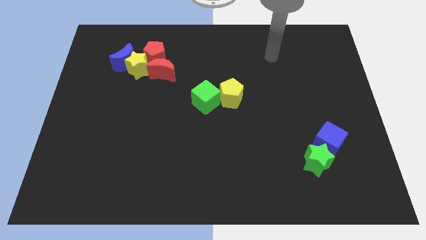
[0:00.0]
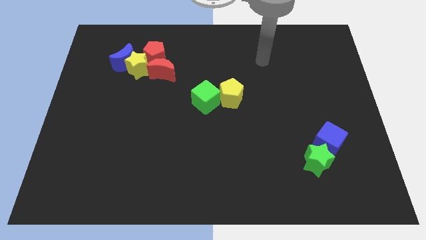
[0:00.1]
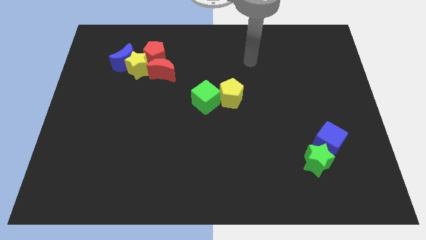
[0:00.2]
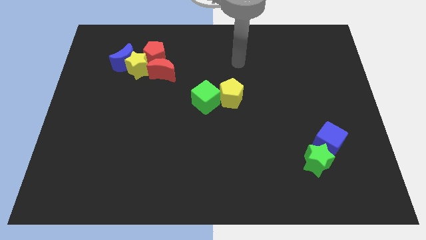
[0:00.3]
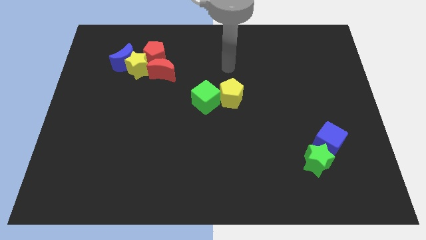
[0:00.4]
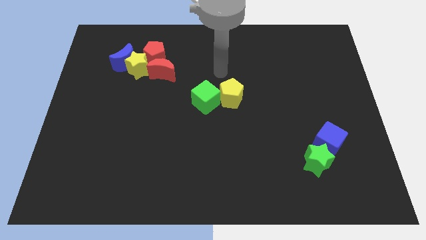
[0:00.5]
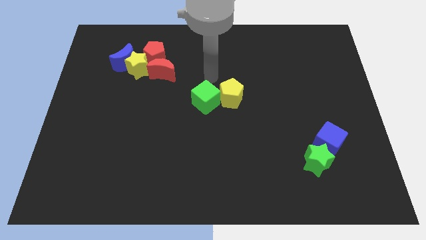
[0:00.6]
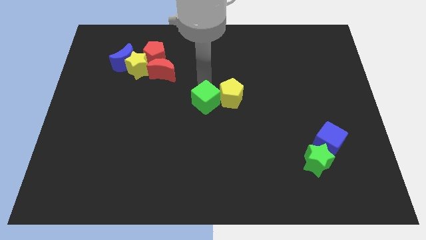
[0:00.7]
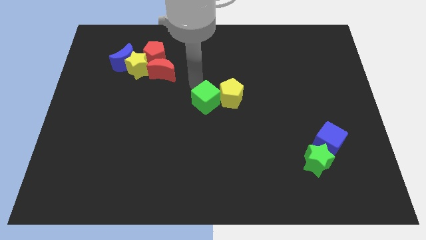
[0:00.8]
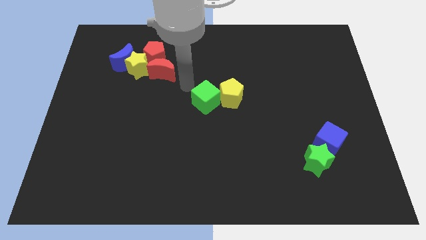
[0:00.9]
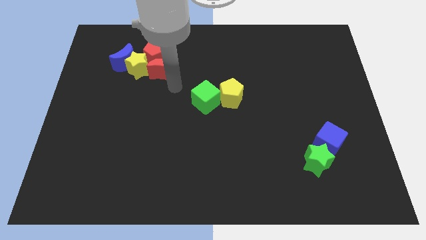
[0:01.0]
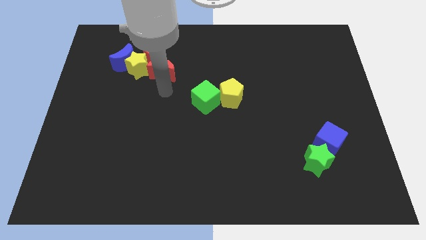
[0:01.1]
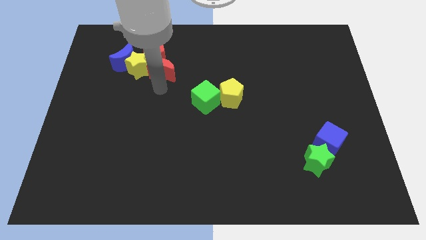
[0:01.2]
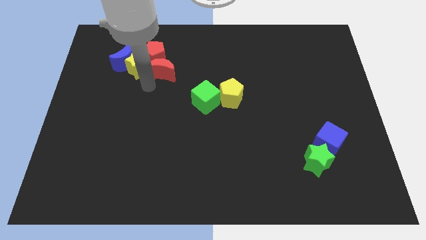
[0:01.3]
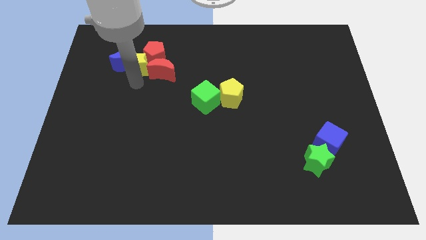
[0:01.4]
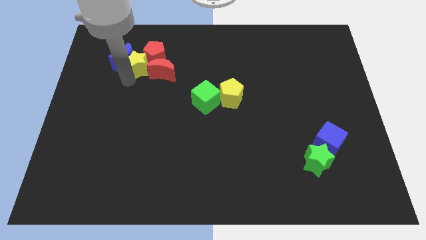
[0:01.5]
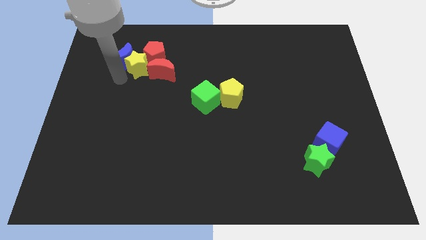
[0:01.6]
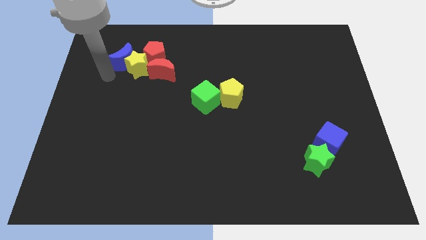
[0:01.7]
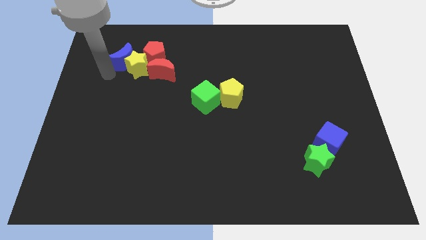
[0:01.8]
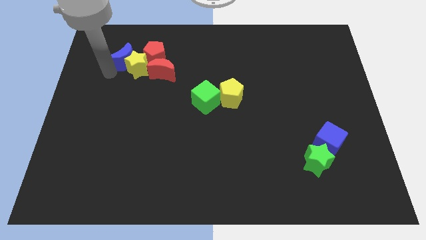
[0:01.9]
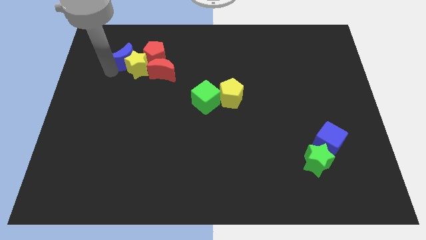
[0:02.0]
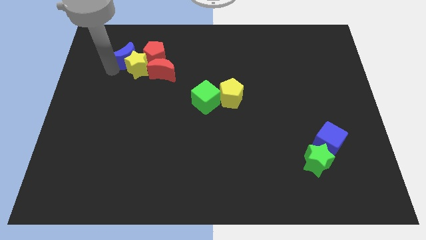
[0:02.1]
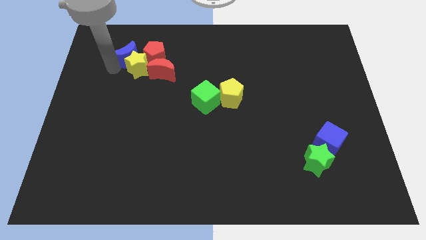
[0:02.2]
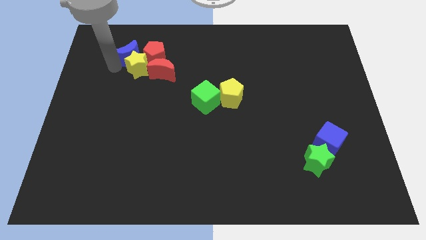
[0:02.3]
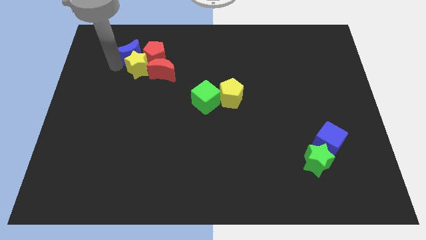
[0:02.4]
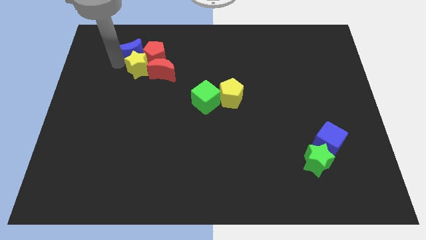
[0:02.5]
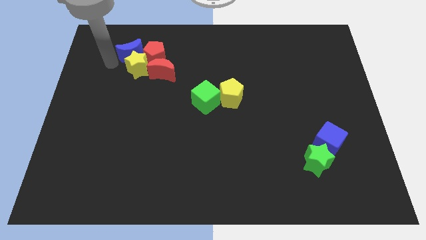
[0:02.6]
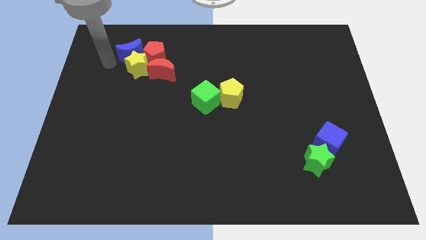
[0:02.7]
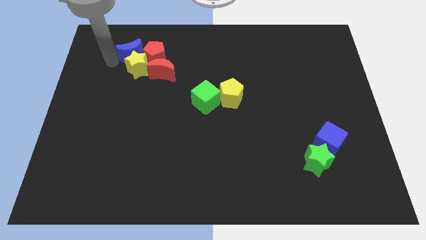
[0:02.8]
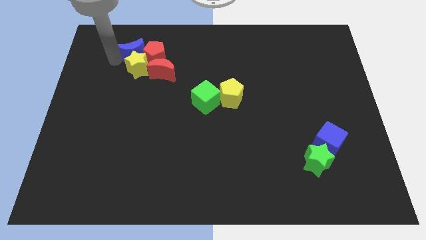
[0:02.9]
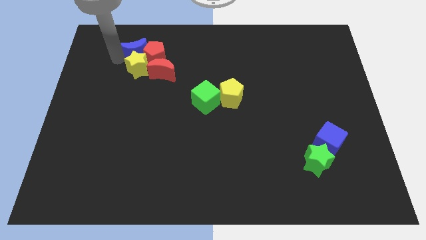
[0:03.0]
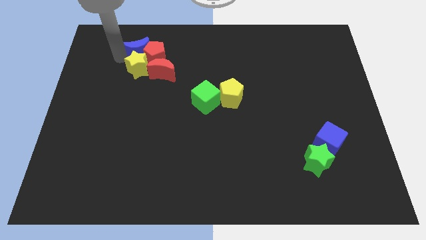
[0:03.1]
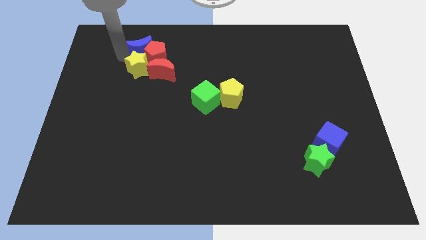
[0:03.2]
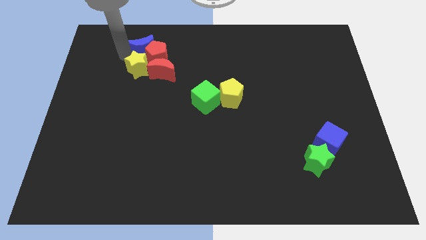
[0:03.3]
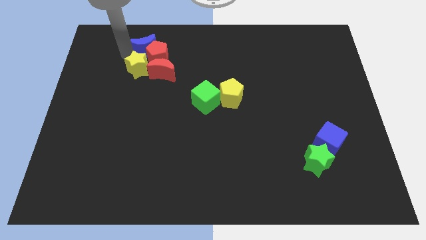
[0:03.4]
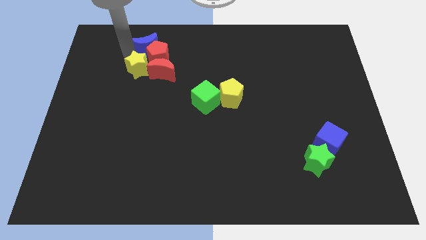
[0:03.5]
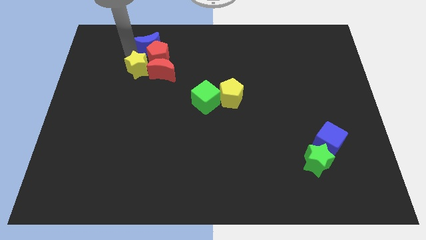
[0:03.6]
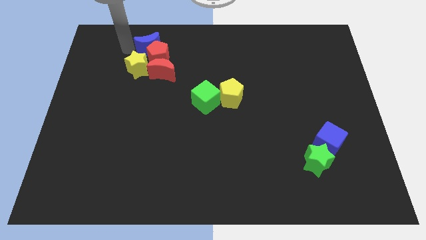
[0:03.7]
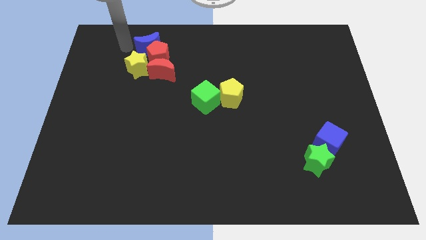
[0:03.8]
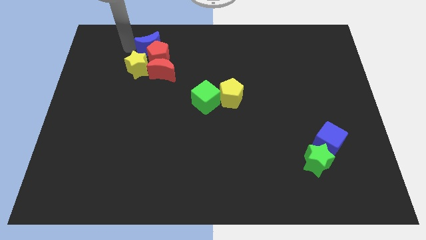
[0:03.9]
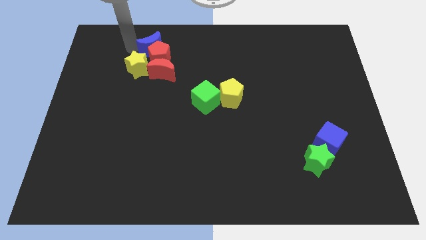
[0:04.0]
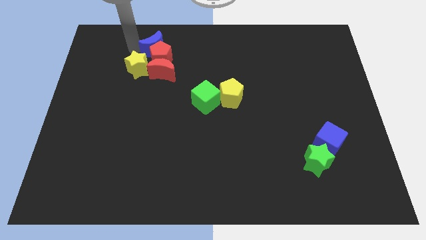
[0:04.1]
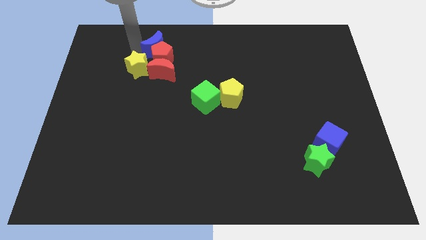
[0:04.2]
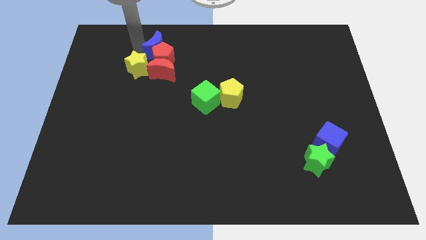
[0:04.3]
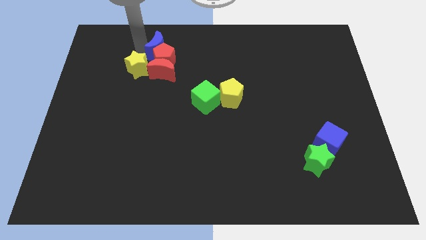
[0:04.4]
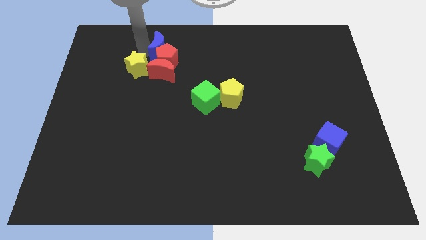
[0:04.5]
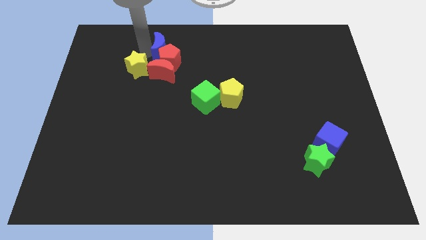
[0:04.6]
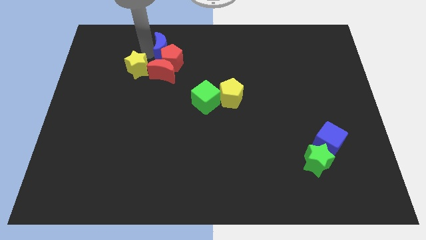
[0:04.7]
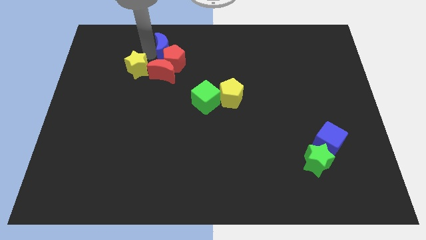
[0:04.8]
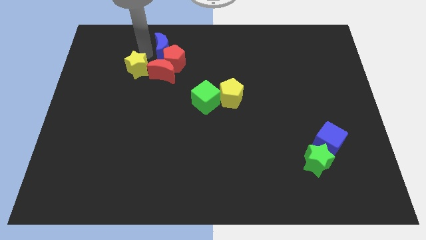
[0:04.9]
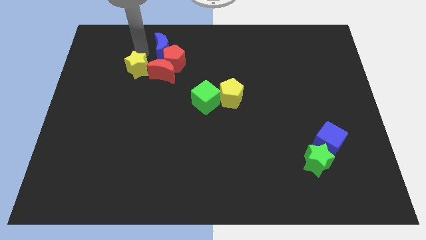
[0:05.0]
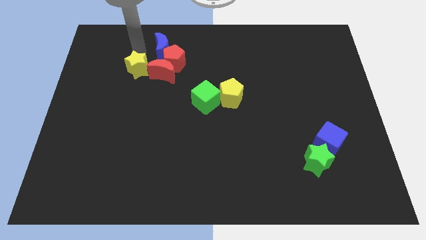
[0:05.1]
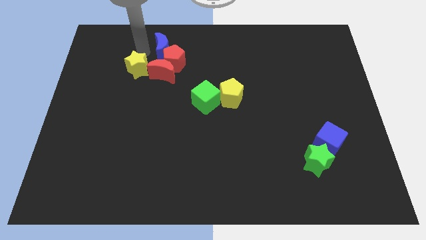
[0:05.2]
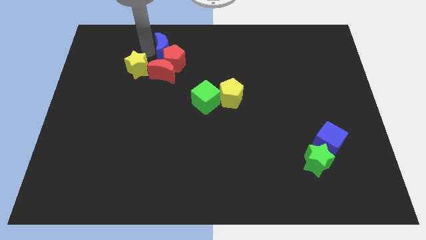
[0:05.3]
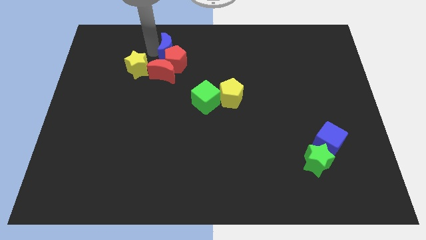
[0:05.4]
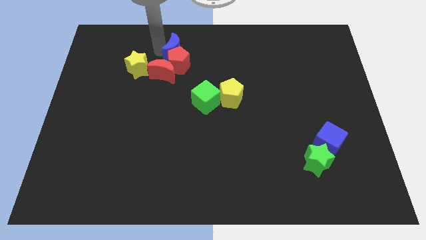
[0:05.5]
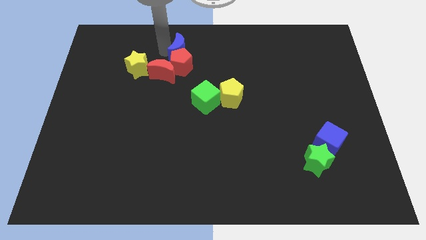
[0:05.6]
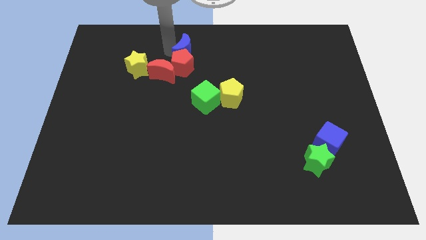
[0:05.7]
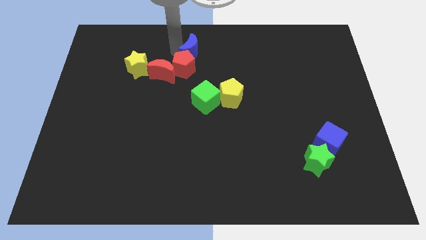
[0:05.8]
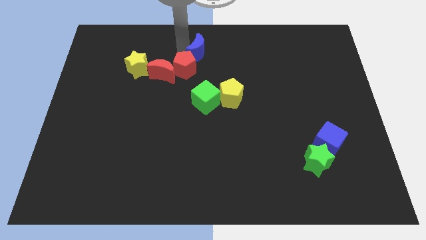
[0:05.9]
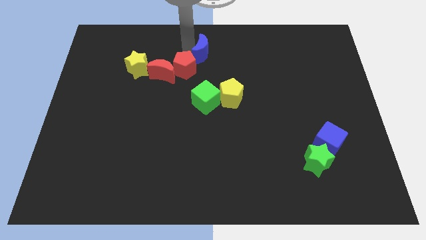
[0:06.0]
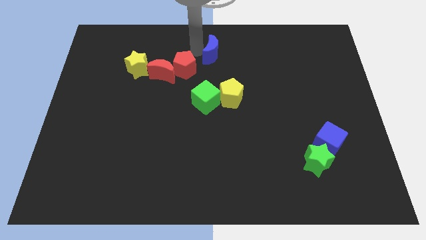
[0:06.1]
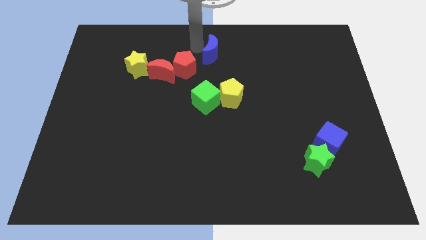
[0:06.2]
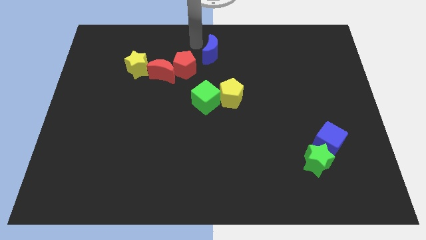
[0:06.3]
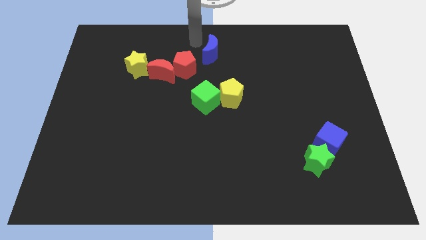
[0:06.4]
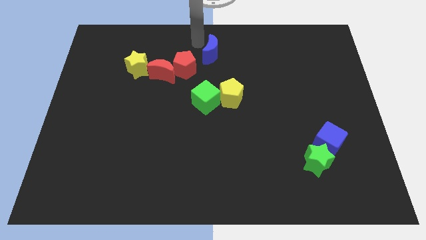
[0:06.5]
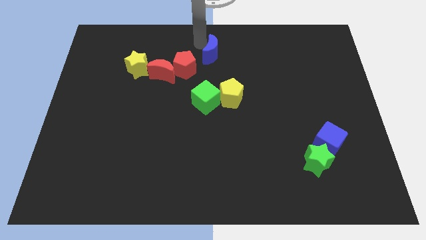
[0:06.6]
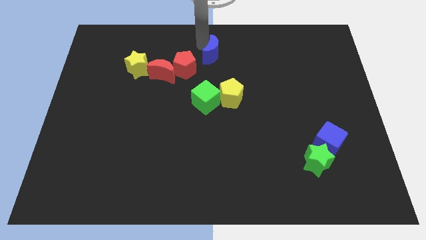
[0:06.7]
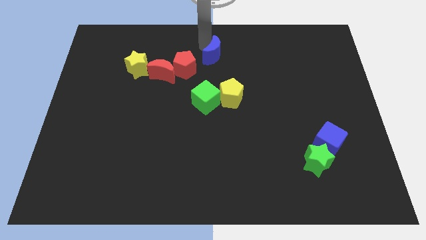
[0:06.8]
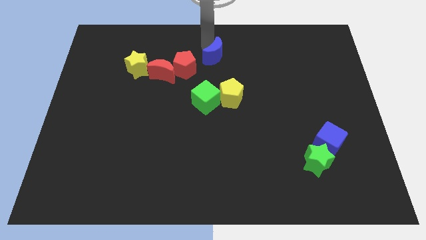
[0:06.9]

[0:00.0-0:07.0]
put the blue moon to the top of the yellow pentagon
